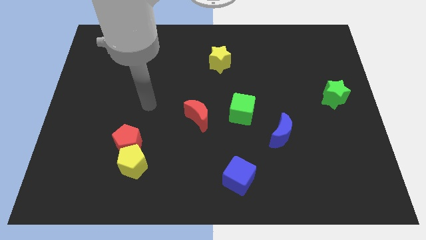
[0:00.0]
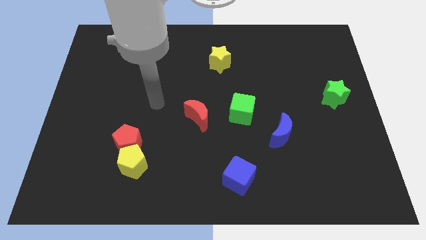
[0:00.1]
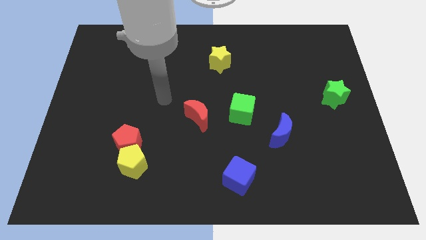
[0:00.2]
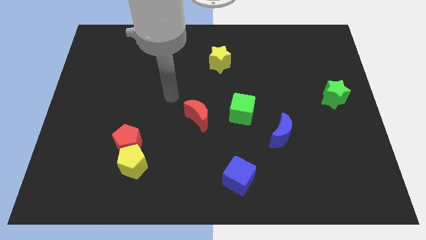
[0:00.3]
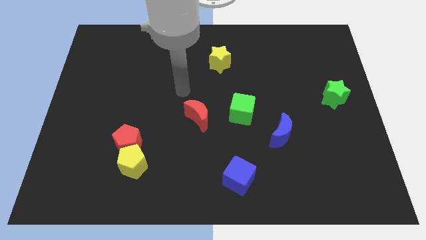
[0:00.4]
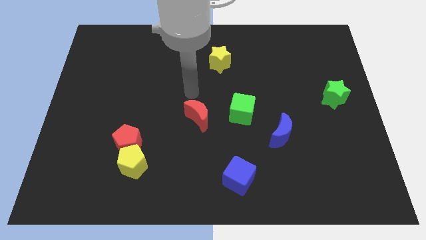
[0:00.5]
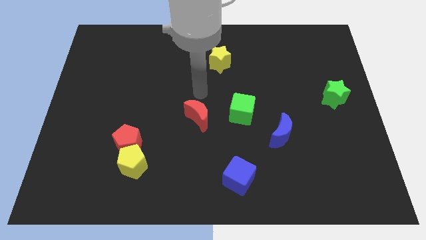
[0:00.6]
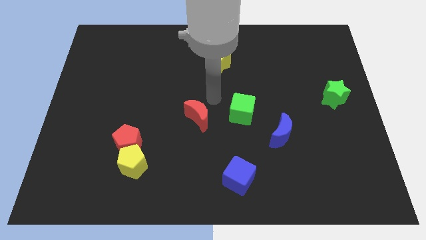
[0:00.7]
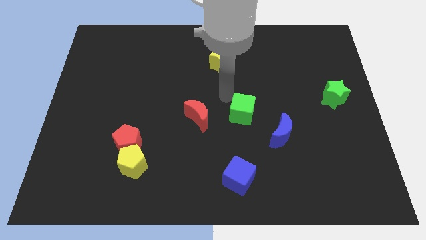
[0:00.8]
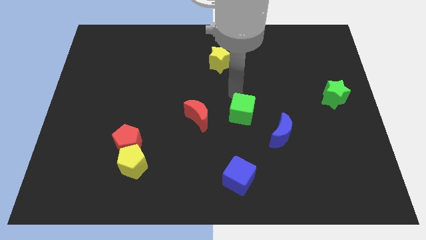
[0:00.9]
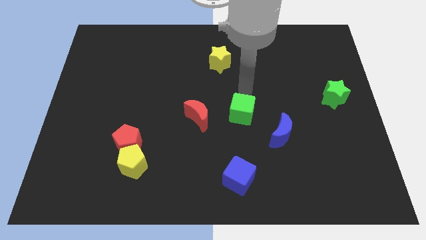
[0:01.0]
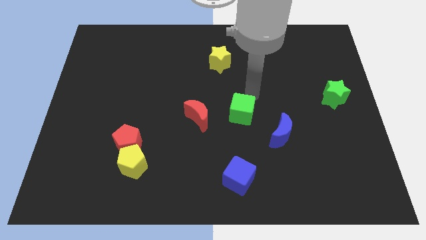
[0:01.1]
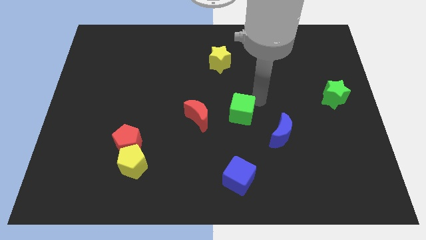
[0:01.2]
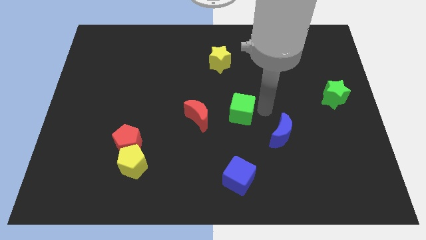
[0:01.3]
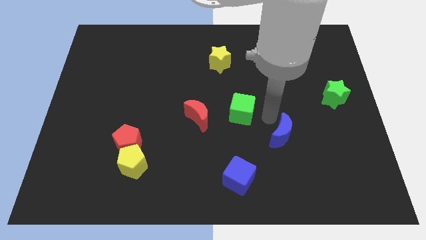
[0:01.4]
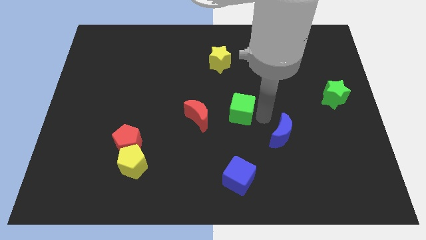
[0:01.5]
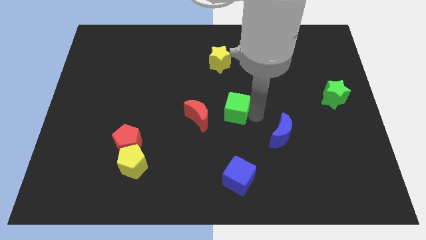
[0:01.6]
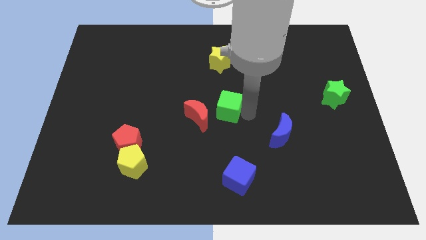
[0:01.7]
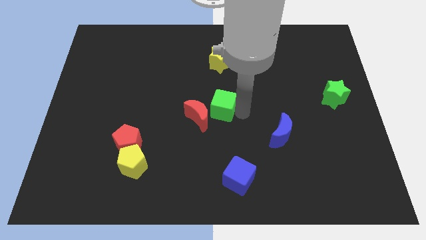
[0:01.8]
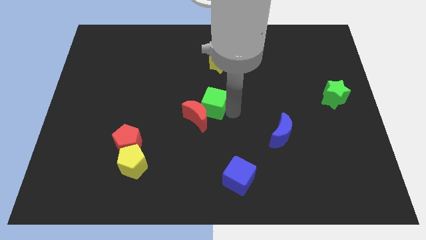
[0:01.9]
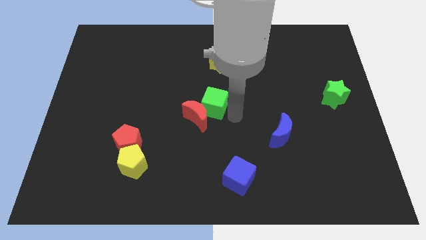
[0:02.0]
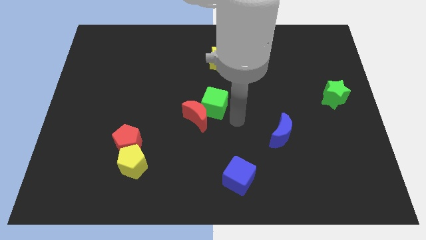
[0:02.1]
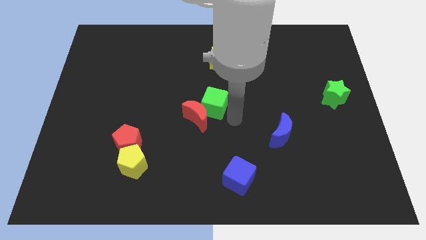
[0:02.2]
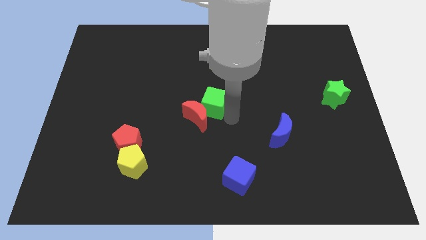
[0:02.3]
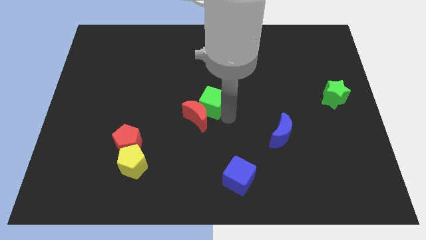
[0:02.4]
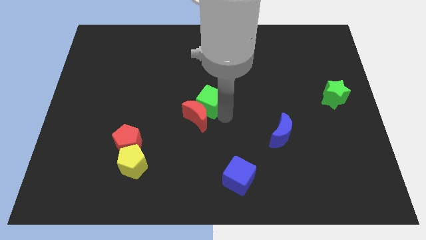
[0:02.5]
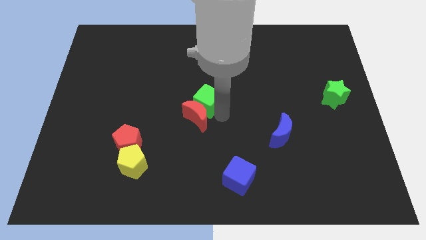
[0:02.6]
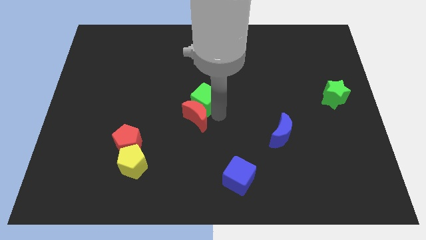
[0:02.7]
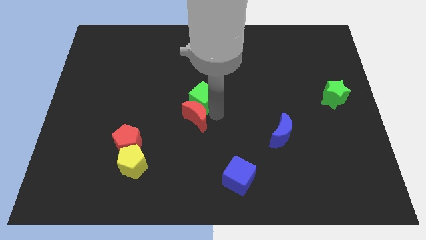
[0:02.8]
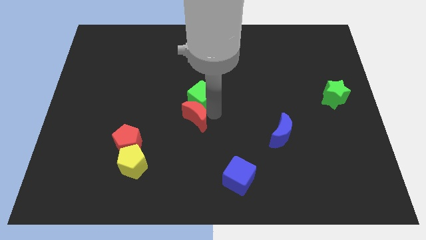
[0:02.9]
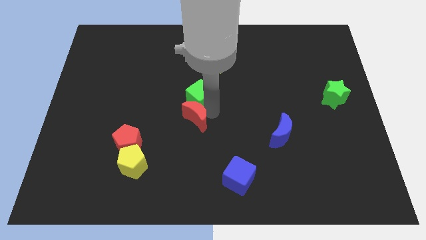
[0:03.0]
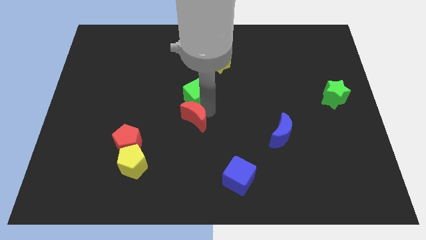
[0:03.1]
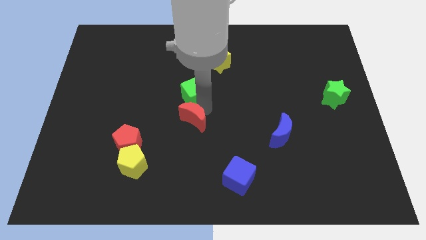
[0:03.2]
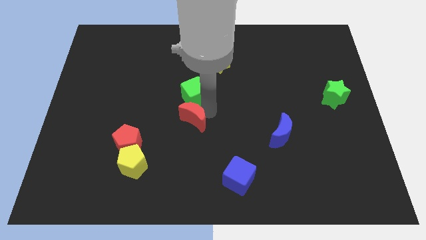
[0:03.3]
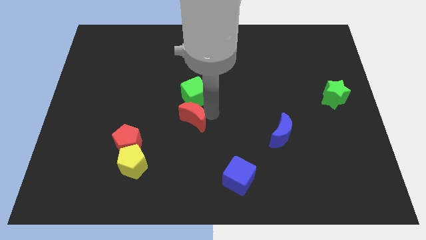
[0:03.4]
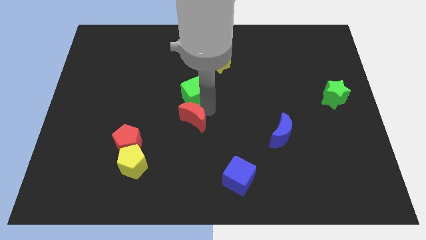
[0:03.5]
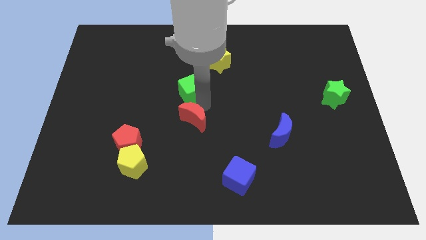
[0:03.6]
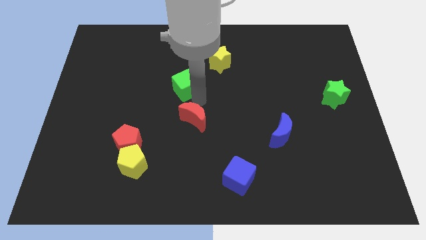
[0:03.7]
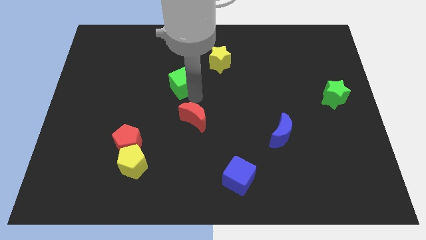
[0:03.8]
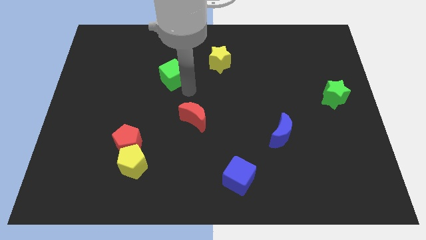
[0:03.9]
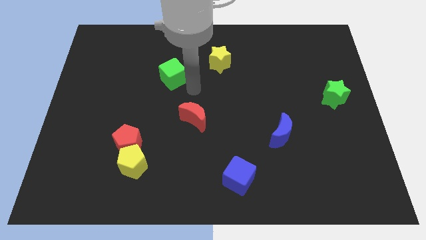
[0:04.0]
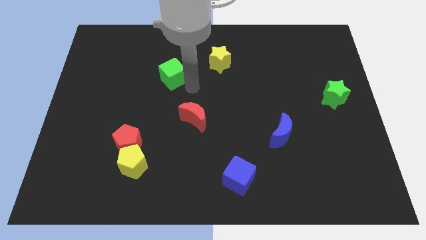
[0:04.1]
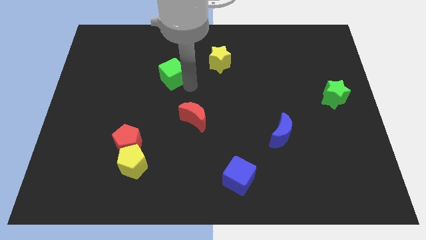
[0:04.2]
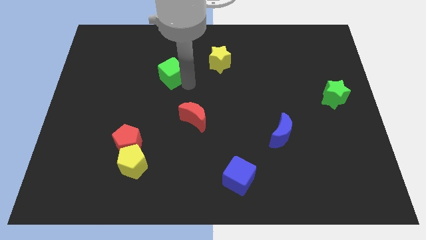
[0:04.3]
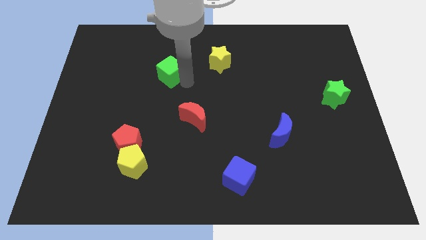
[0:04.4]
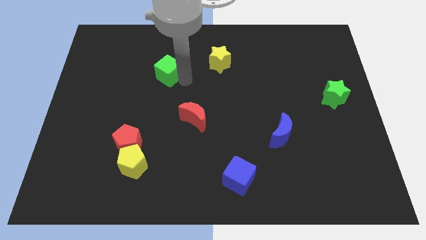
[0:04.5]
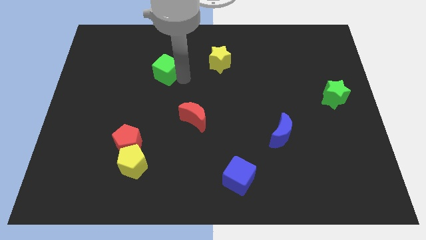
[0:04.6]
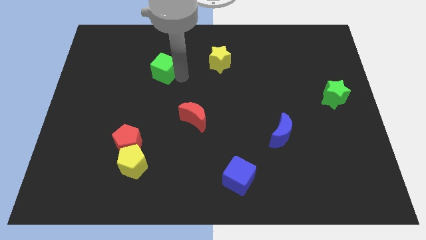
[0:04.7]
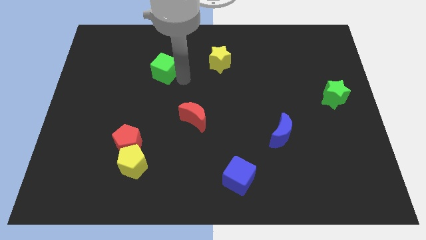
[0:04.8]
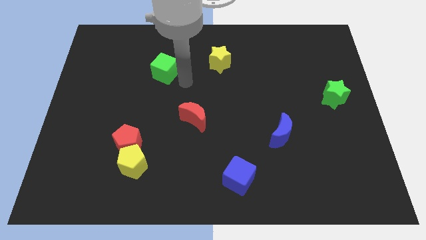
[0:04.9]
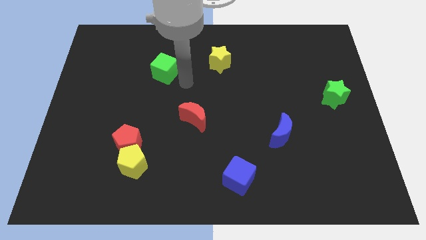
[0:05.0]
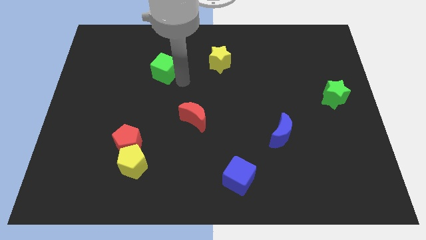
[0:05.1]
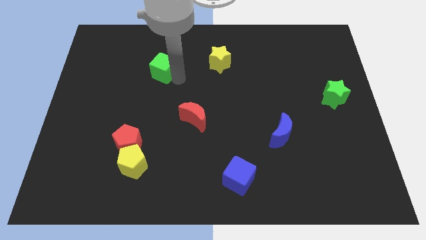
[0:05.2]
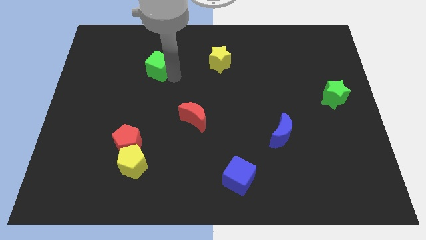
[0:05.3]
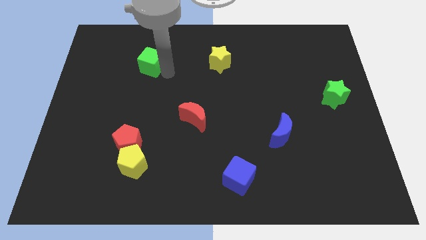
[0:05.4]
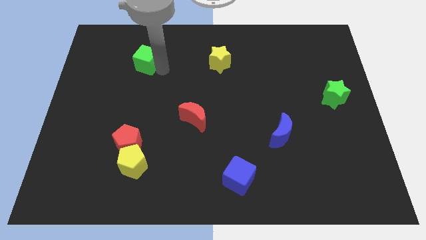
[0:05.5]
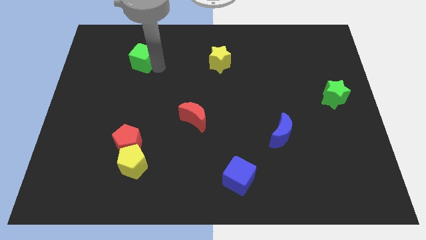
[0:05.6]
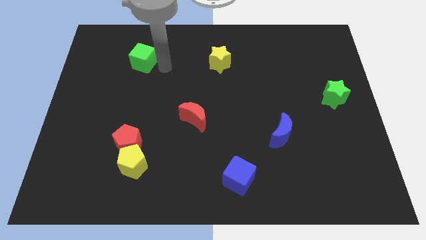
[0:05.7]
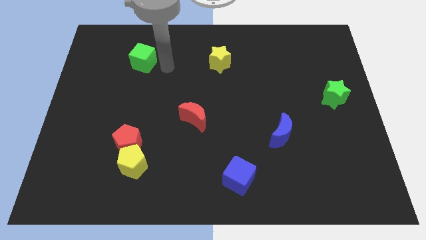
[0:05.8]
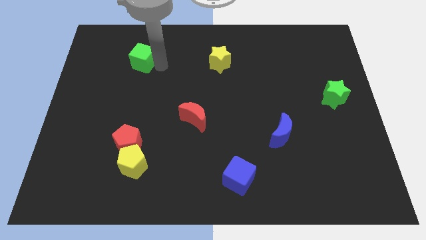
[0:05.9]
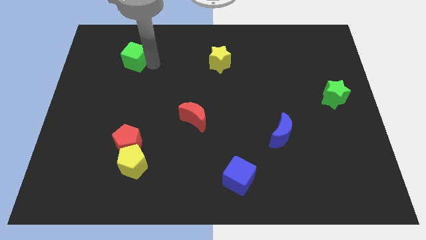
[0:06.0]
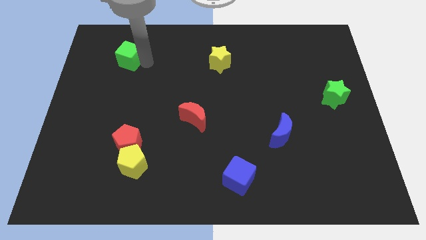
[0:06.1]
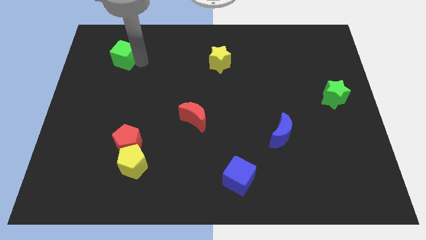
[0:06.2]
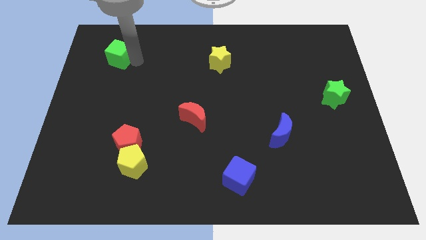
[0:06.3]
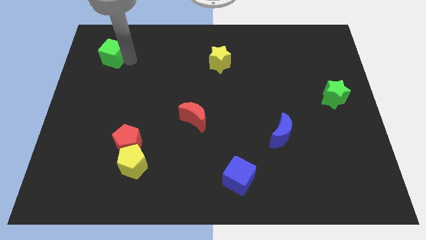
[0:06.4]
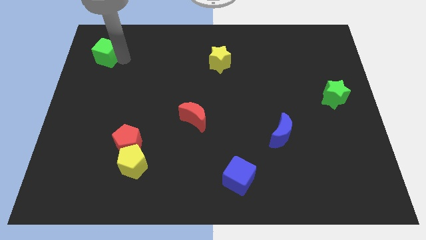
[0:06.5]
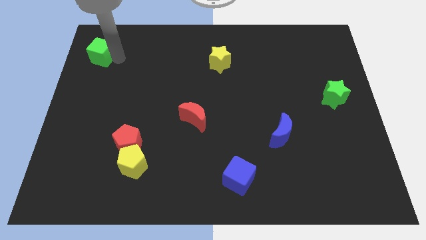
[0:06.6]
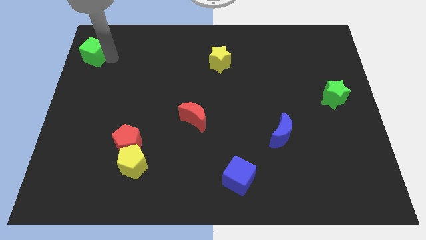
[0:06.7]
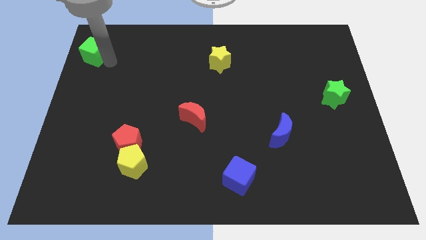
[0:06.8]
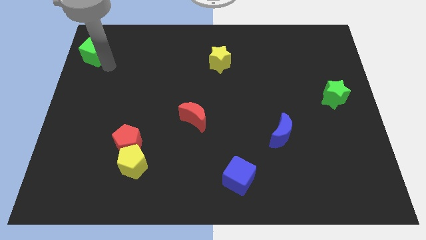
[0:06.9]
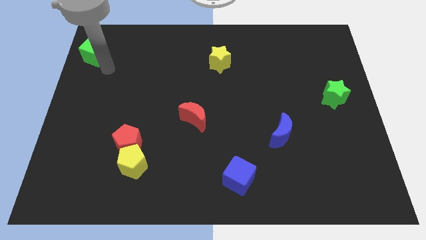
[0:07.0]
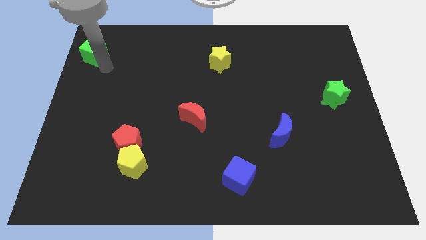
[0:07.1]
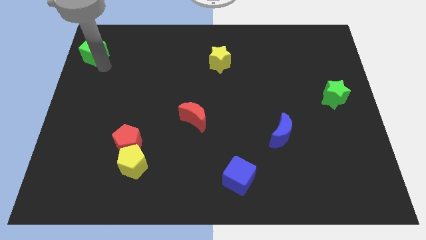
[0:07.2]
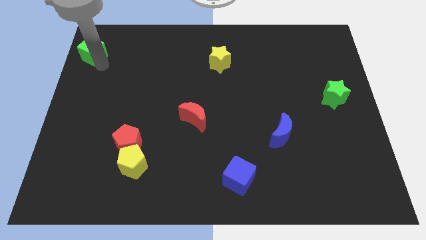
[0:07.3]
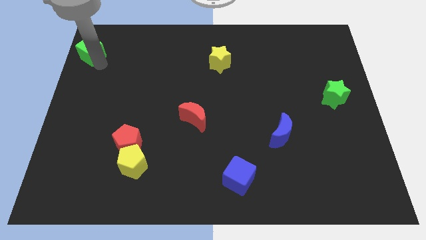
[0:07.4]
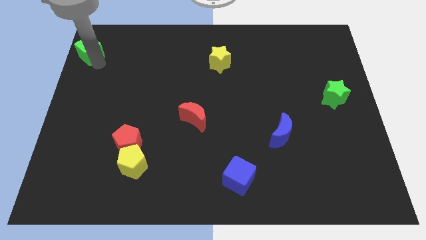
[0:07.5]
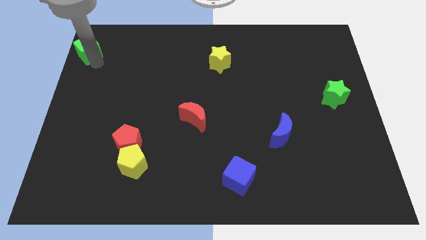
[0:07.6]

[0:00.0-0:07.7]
move the green cube to the upper left corner
